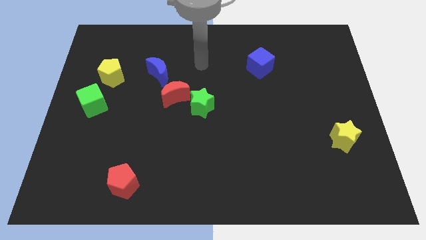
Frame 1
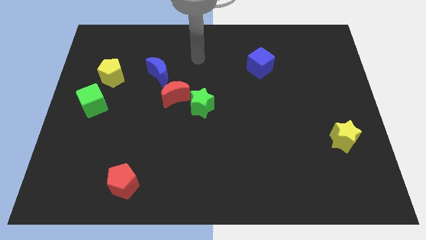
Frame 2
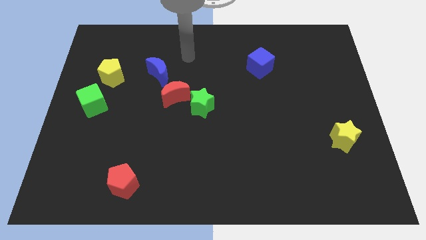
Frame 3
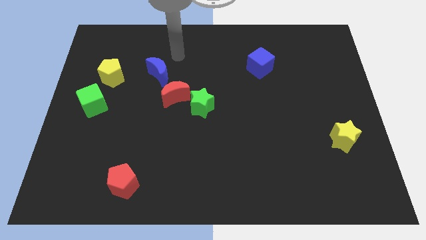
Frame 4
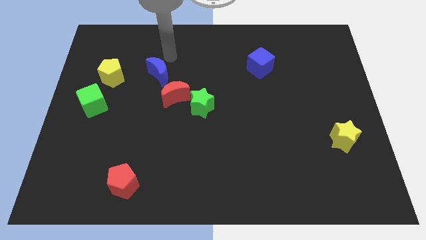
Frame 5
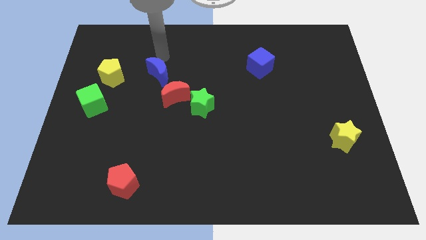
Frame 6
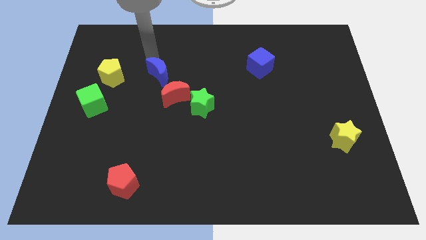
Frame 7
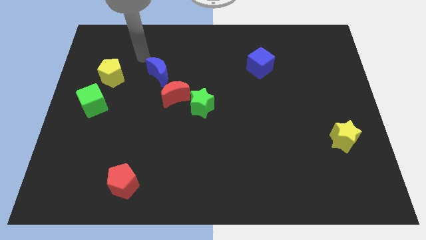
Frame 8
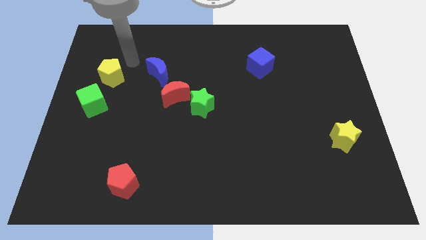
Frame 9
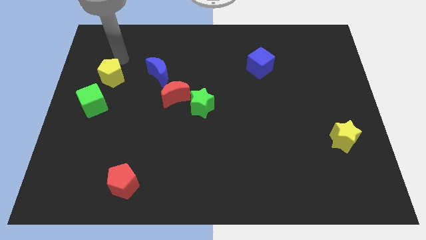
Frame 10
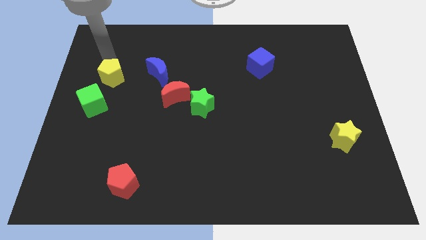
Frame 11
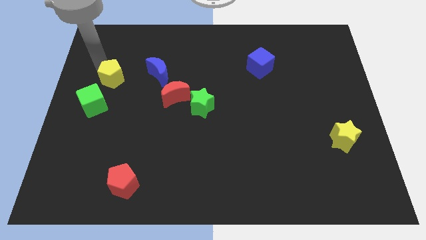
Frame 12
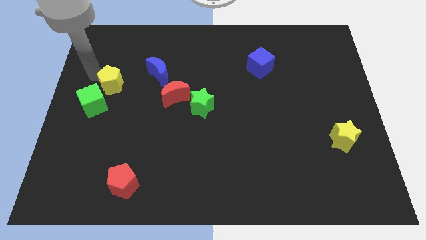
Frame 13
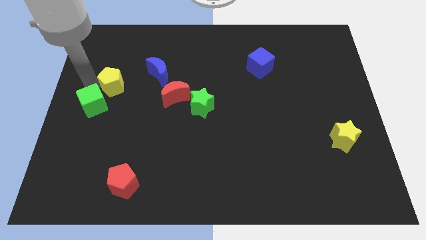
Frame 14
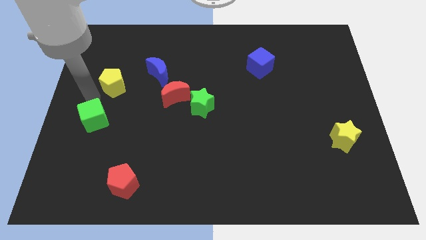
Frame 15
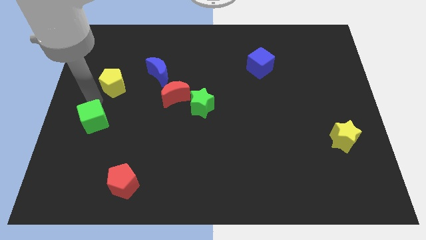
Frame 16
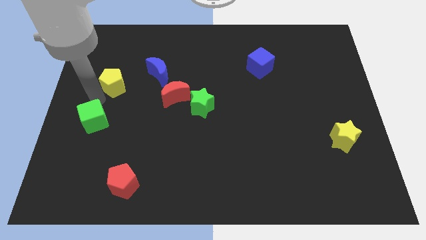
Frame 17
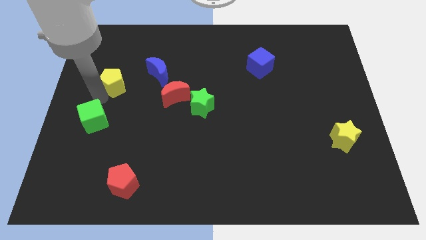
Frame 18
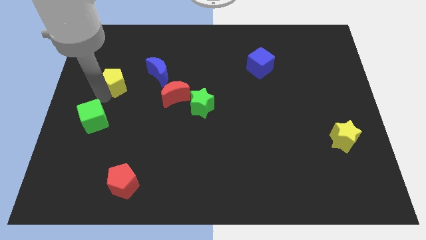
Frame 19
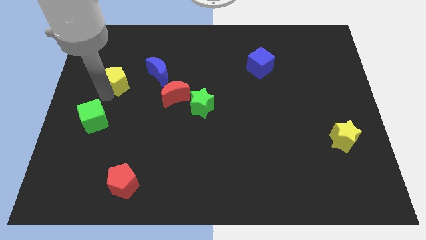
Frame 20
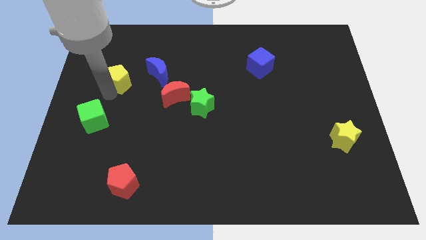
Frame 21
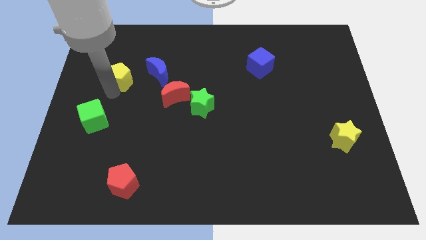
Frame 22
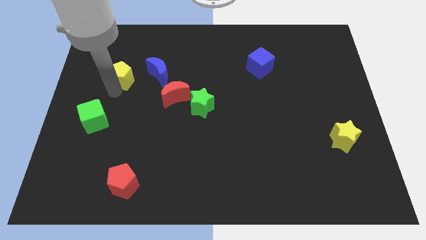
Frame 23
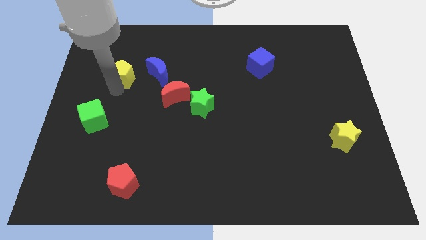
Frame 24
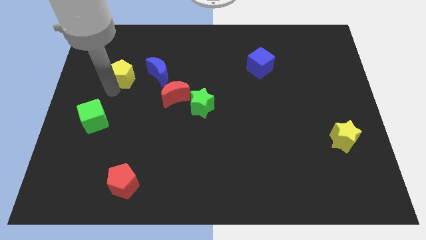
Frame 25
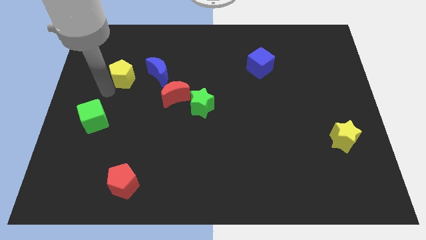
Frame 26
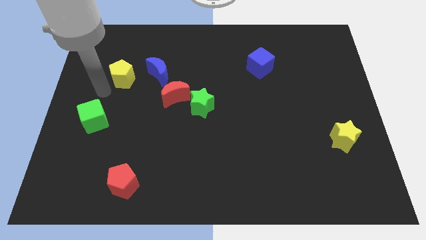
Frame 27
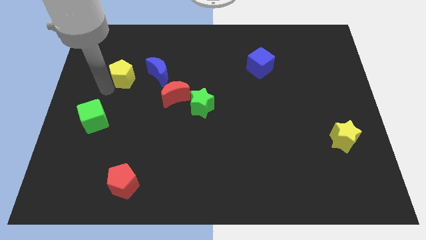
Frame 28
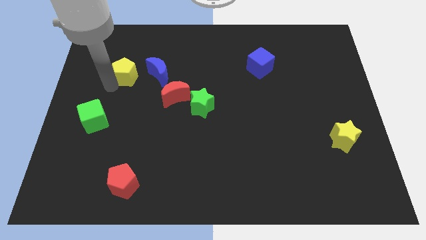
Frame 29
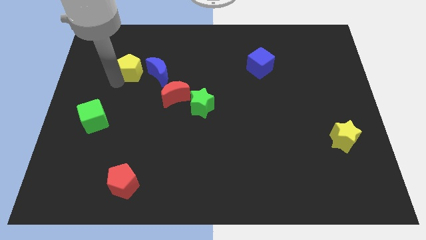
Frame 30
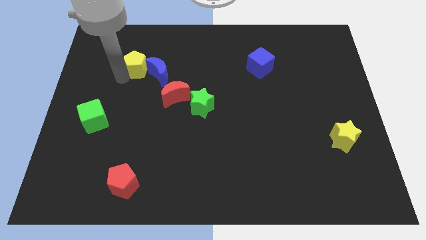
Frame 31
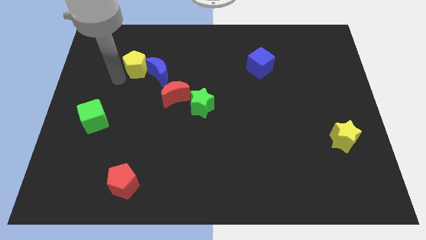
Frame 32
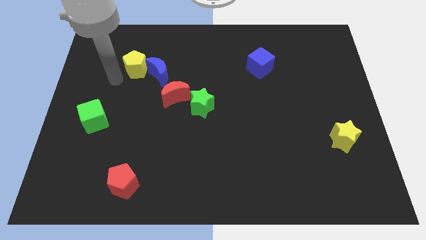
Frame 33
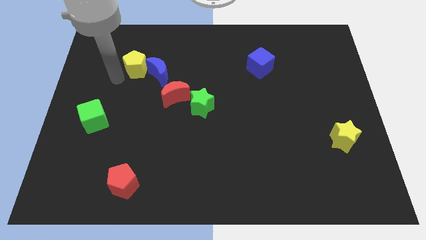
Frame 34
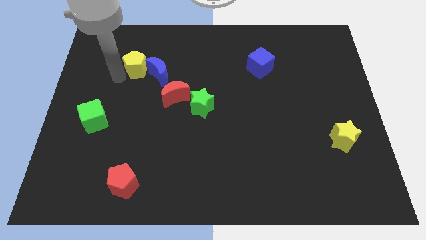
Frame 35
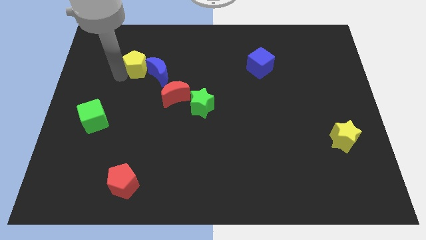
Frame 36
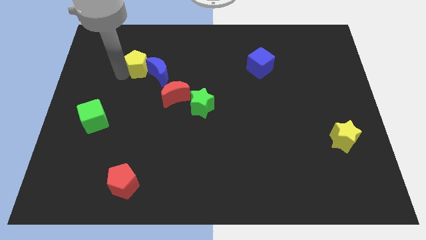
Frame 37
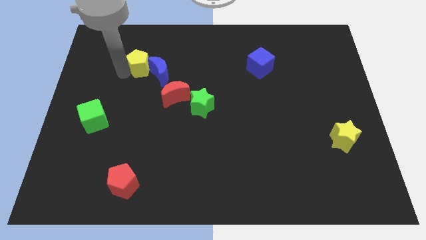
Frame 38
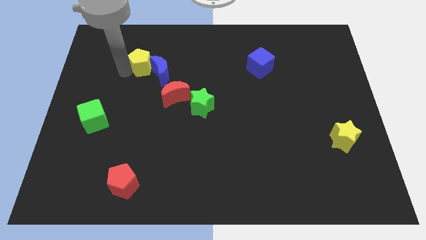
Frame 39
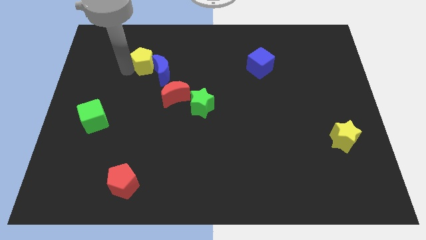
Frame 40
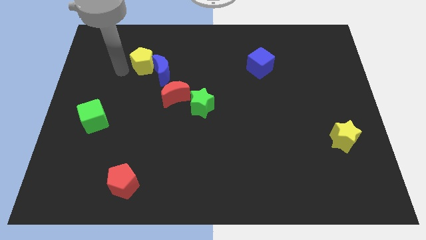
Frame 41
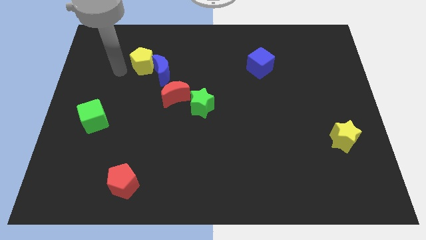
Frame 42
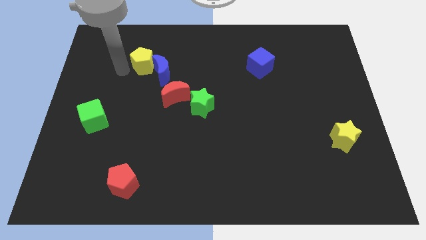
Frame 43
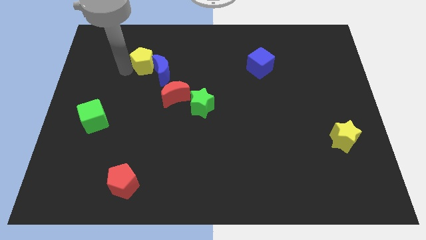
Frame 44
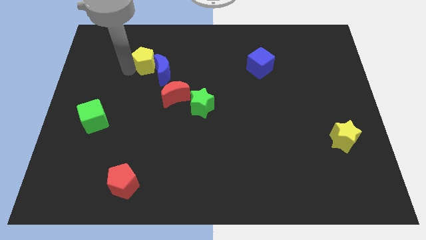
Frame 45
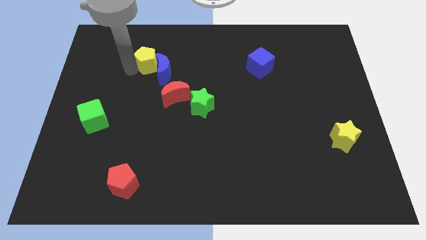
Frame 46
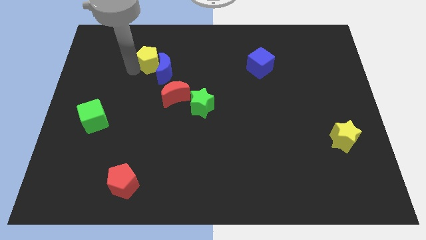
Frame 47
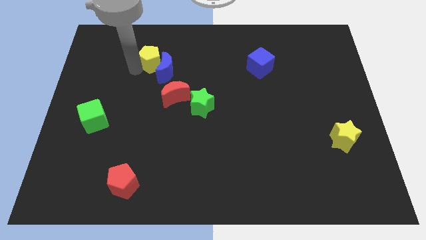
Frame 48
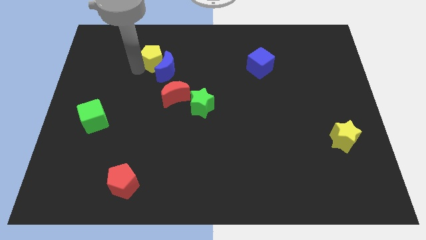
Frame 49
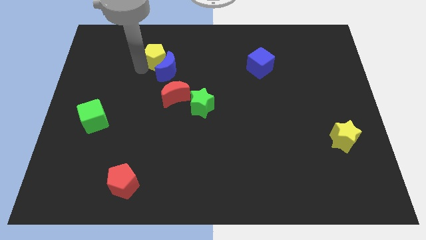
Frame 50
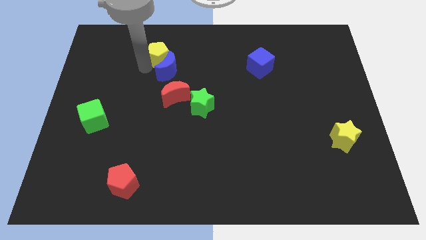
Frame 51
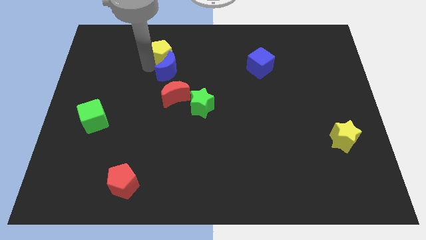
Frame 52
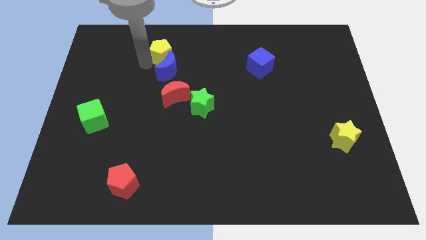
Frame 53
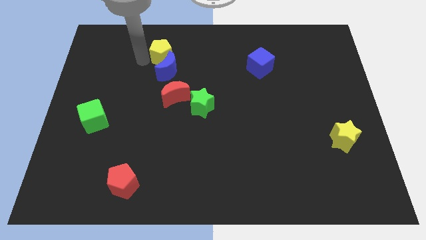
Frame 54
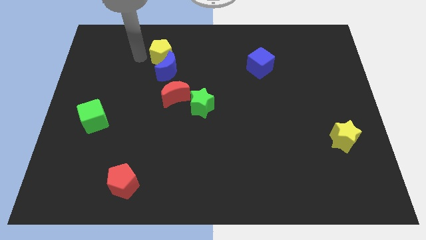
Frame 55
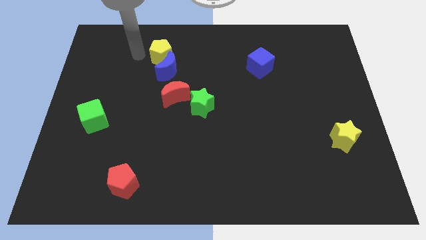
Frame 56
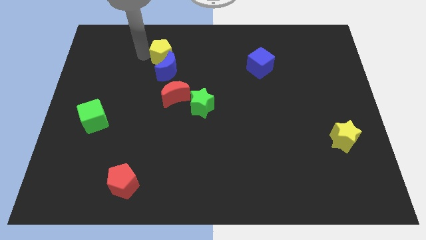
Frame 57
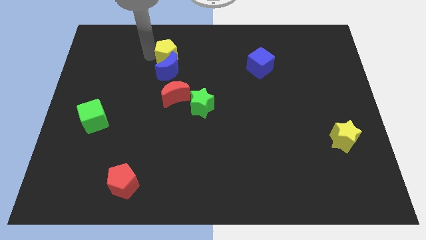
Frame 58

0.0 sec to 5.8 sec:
slide the yellow pentagon to the top right side of the blue moon

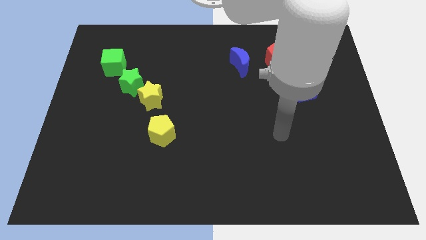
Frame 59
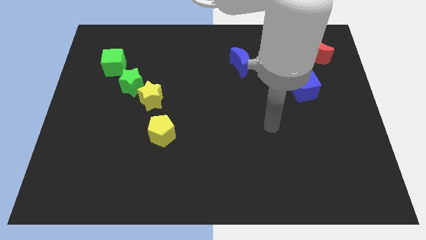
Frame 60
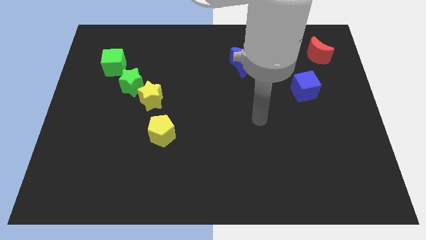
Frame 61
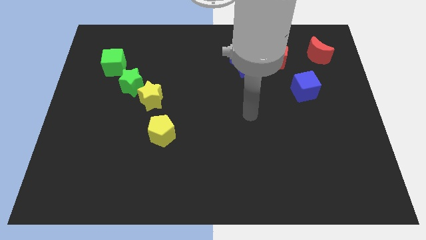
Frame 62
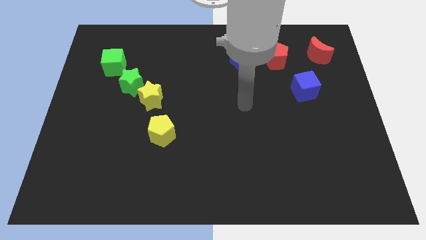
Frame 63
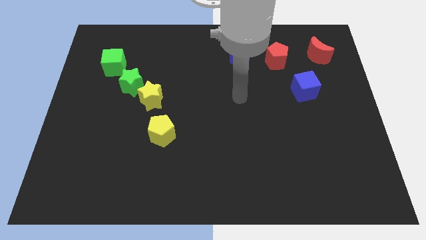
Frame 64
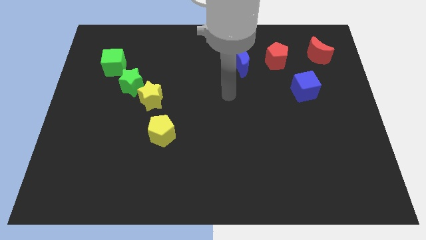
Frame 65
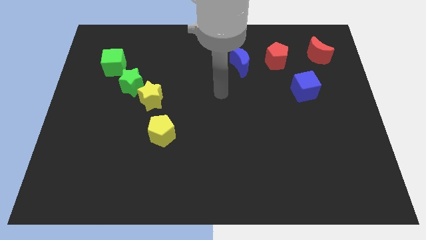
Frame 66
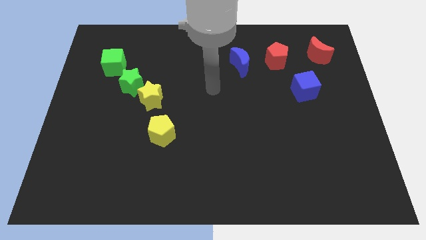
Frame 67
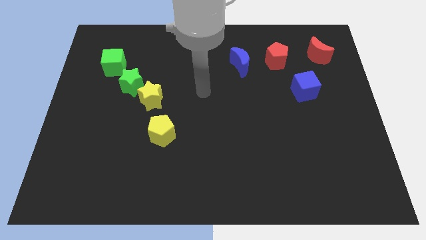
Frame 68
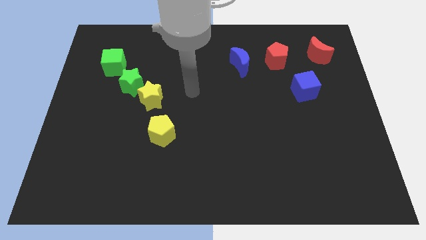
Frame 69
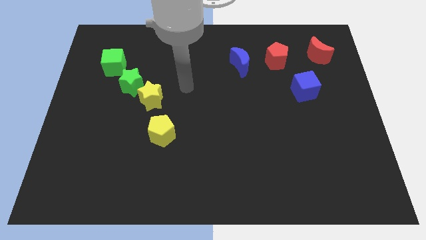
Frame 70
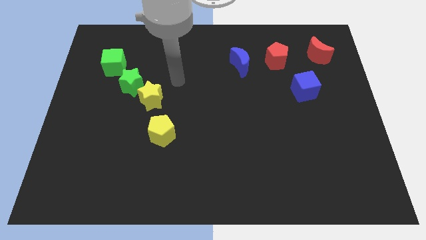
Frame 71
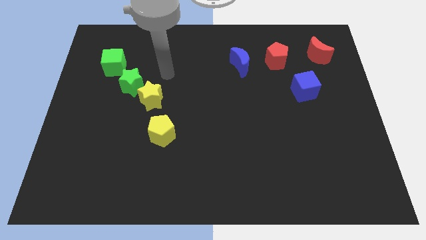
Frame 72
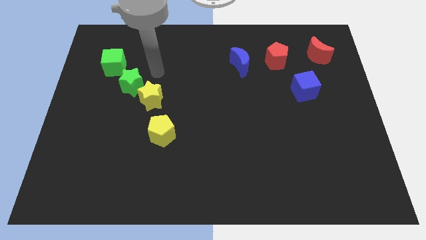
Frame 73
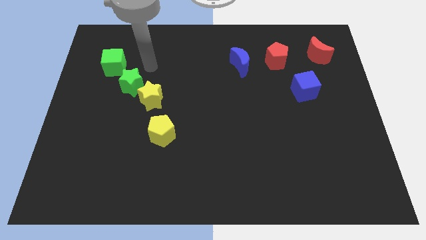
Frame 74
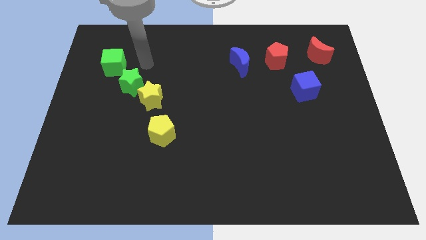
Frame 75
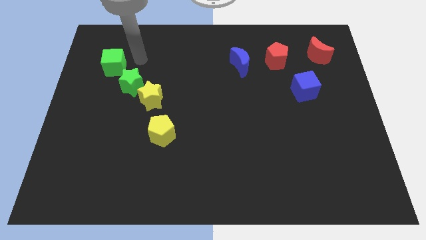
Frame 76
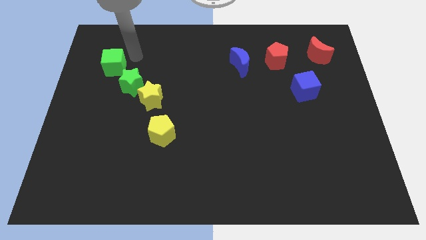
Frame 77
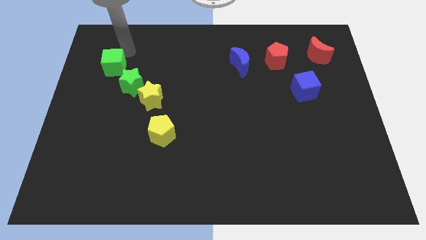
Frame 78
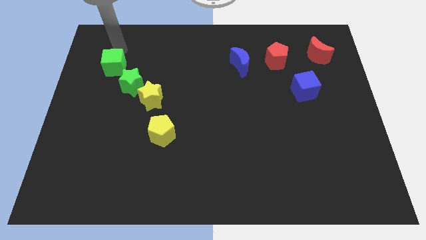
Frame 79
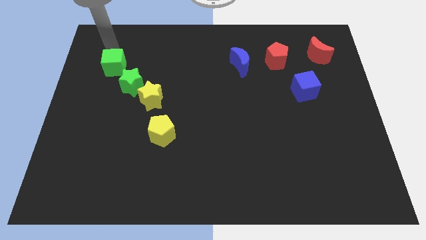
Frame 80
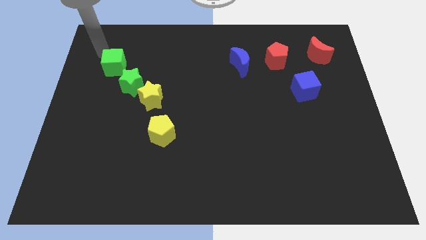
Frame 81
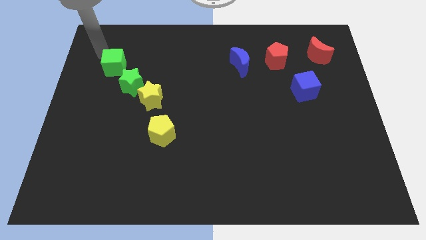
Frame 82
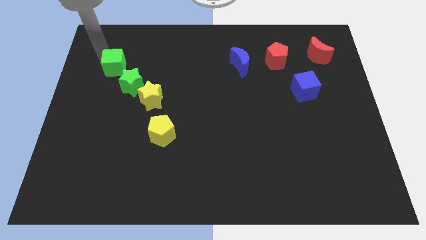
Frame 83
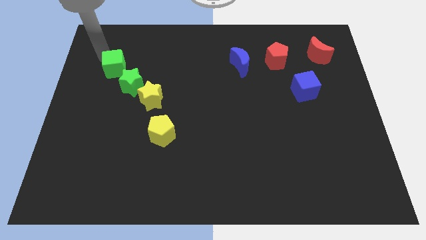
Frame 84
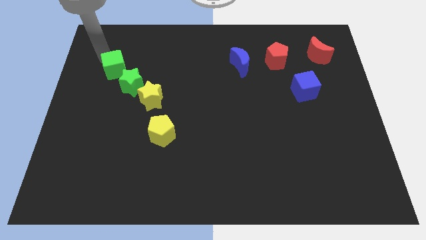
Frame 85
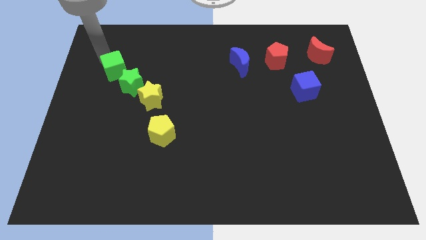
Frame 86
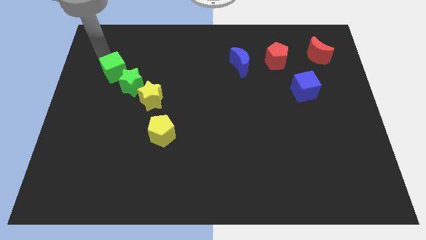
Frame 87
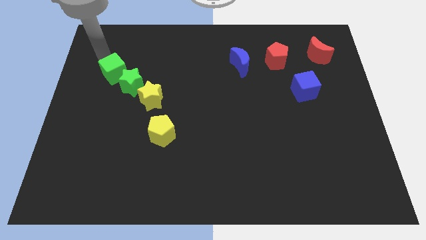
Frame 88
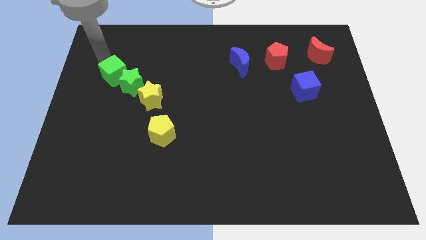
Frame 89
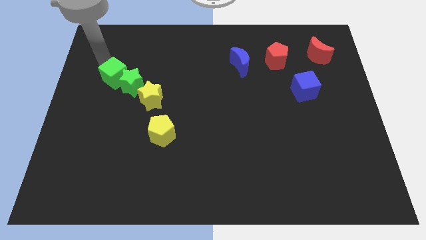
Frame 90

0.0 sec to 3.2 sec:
slide the green cube diagonally up and to the left of the yellow star
